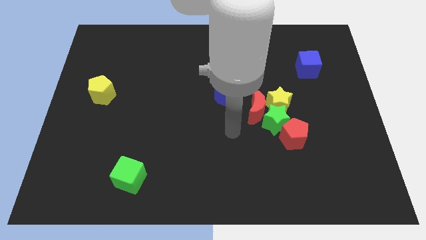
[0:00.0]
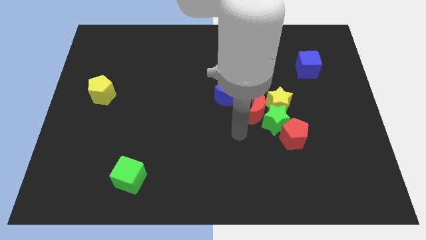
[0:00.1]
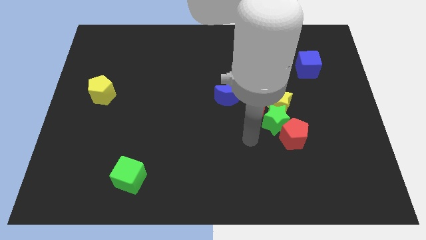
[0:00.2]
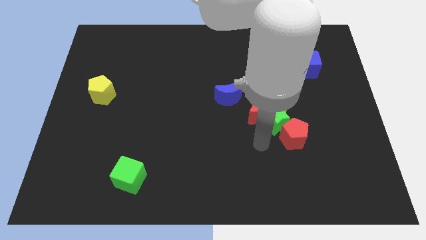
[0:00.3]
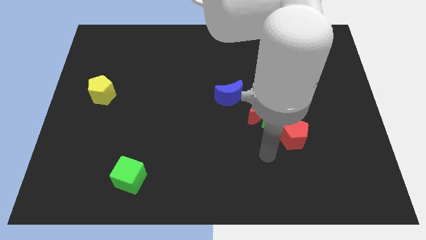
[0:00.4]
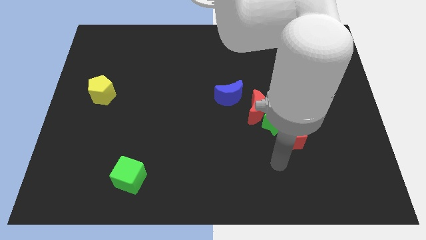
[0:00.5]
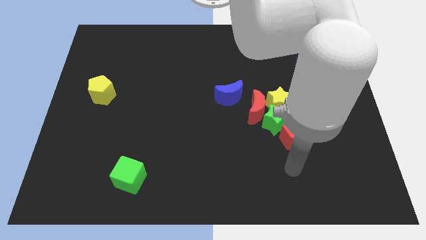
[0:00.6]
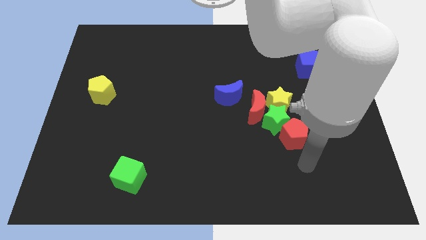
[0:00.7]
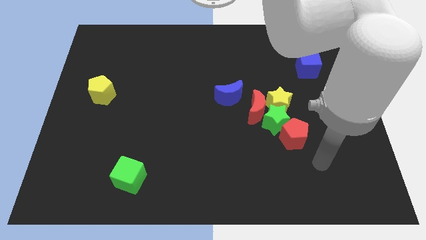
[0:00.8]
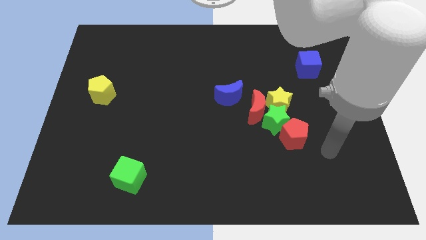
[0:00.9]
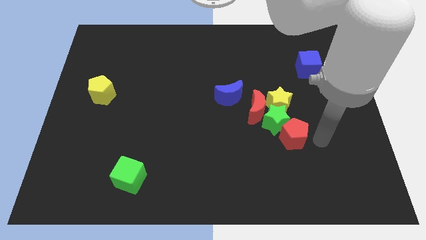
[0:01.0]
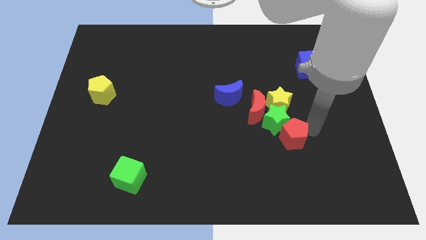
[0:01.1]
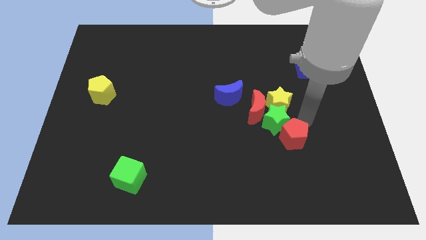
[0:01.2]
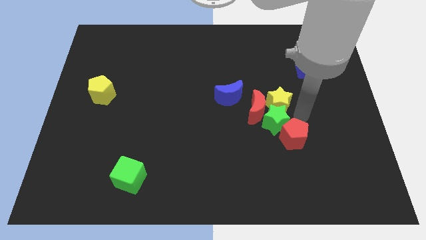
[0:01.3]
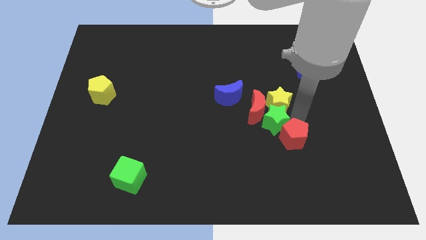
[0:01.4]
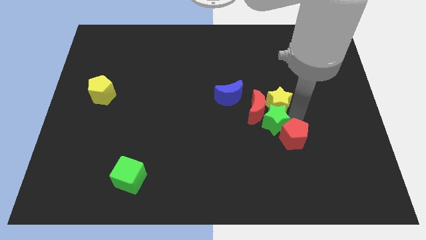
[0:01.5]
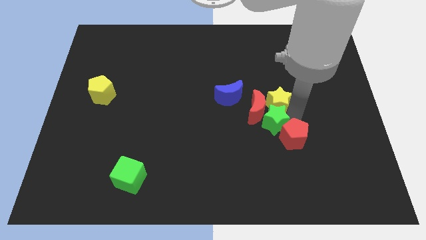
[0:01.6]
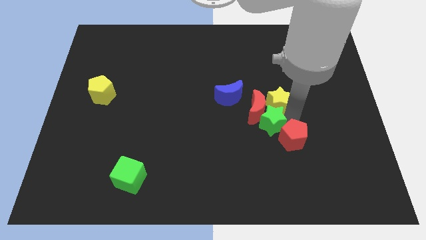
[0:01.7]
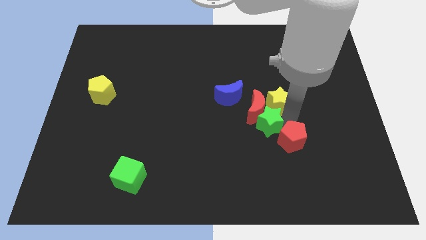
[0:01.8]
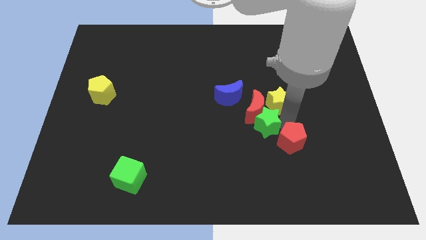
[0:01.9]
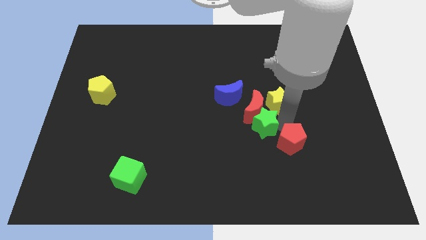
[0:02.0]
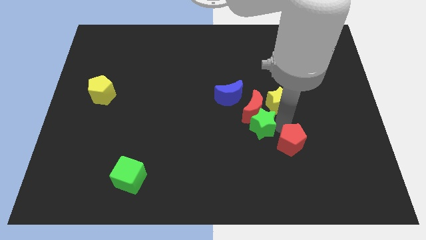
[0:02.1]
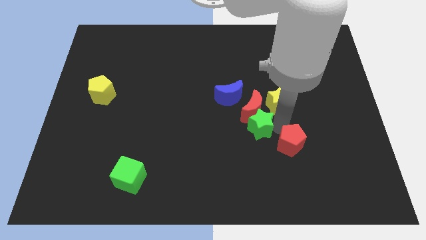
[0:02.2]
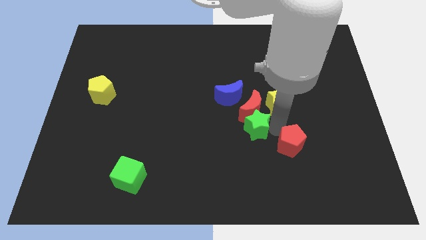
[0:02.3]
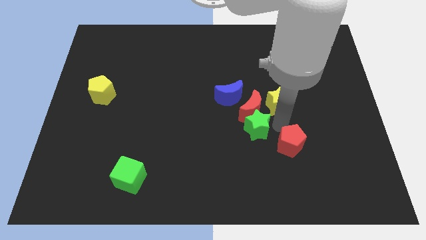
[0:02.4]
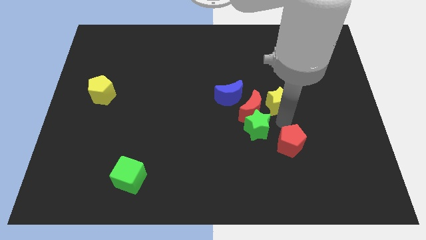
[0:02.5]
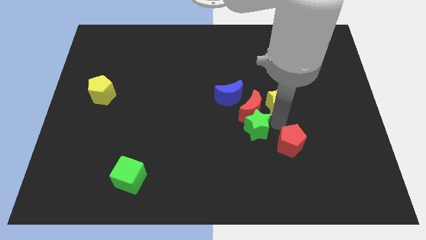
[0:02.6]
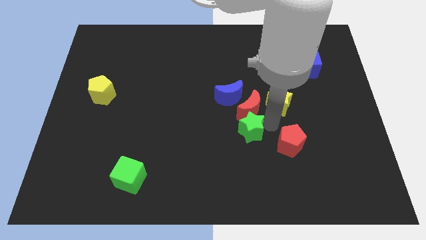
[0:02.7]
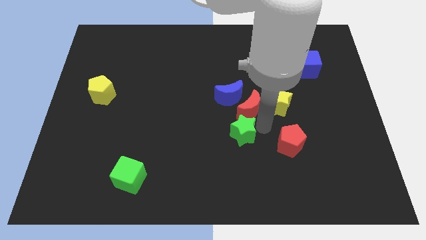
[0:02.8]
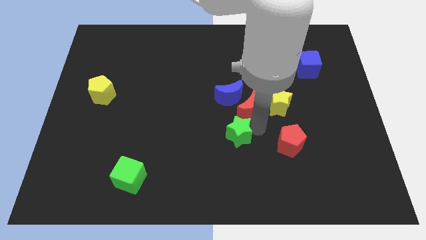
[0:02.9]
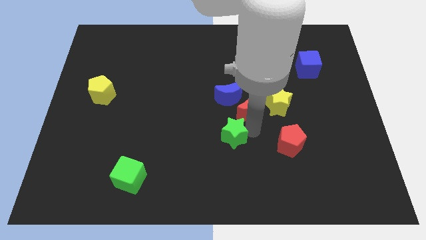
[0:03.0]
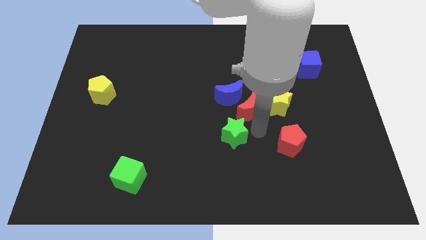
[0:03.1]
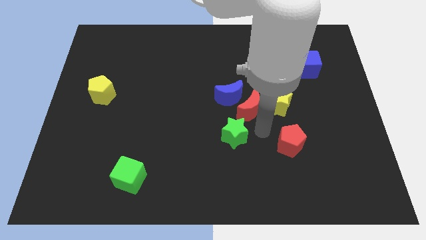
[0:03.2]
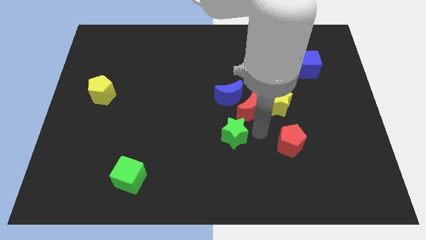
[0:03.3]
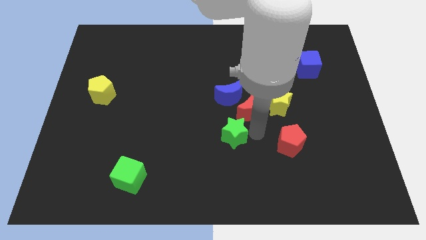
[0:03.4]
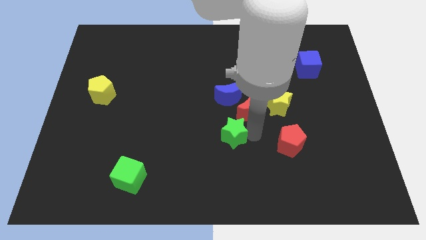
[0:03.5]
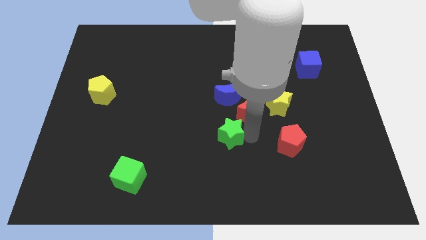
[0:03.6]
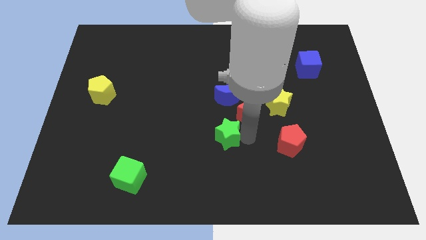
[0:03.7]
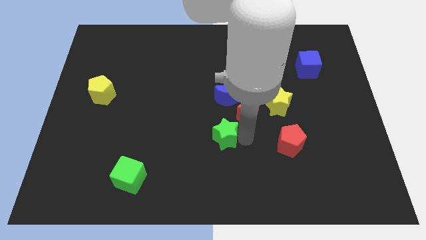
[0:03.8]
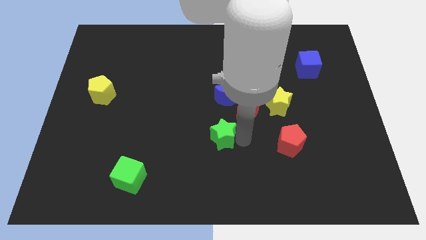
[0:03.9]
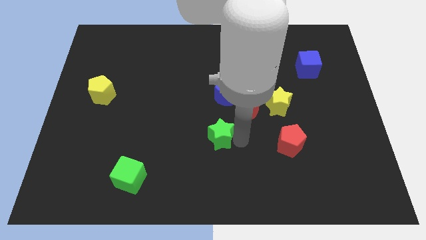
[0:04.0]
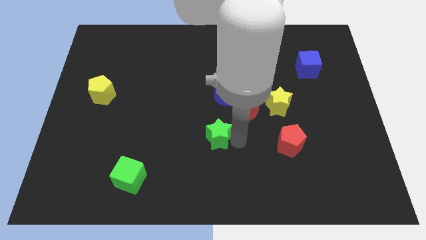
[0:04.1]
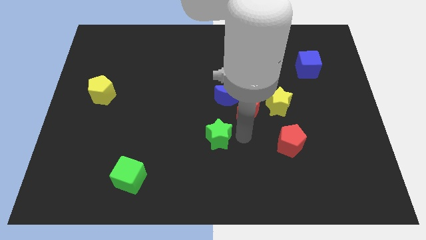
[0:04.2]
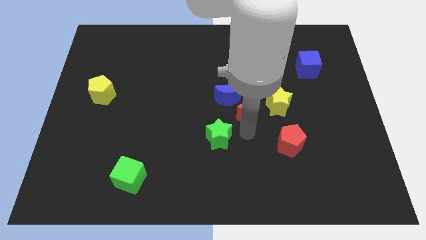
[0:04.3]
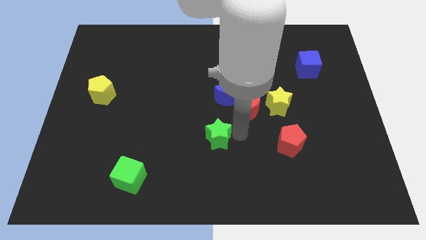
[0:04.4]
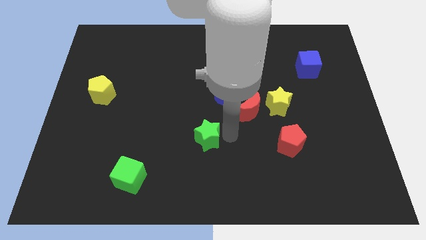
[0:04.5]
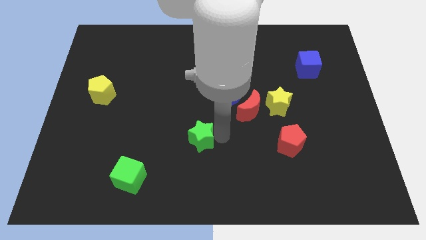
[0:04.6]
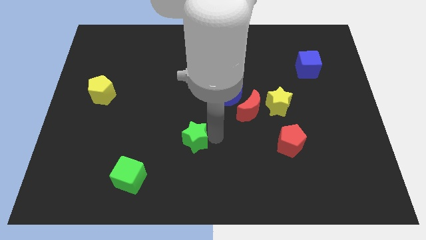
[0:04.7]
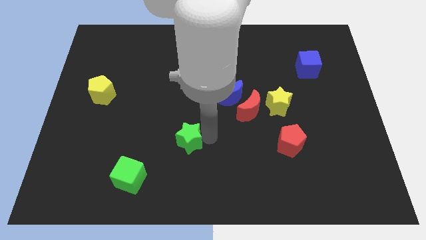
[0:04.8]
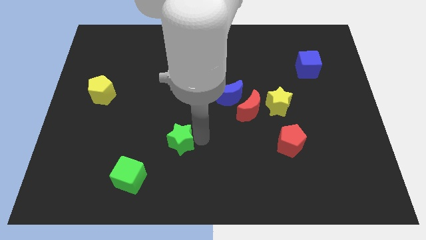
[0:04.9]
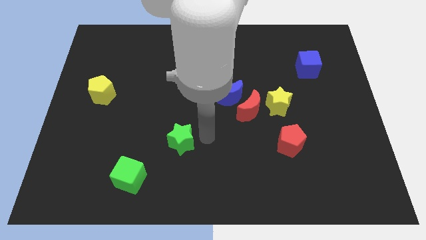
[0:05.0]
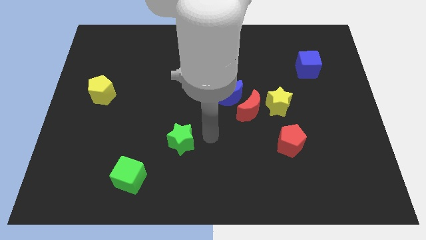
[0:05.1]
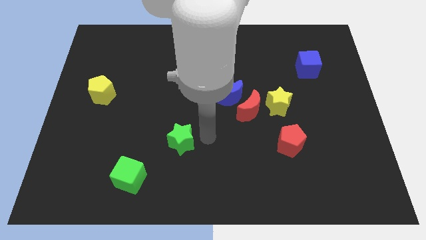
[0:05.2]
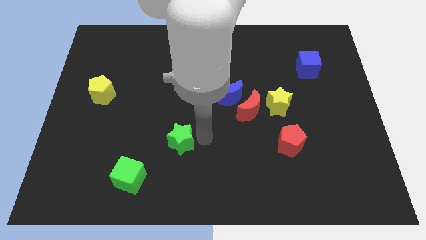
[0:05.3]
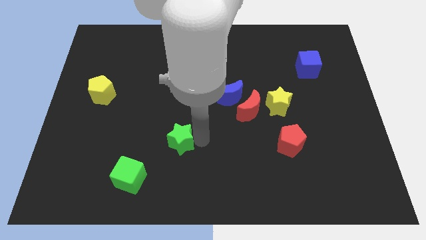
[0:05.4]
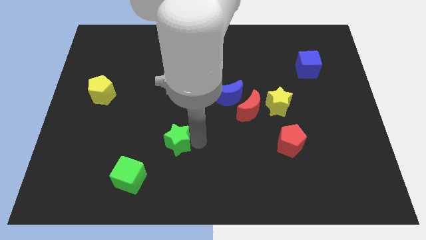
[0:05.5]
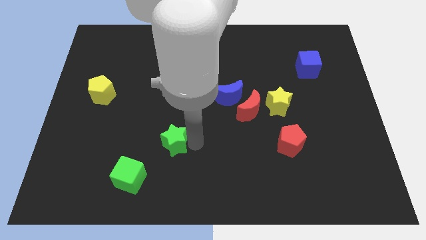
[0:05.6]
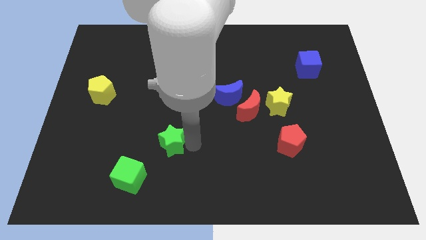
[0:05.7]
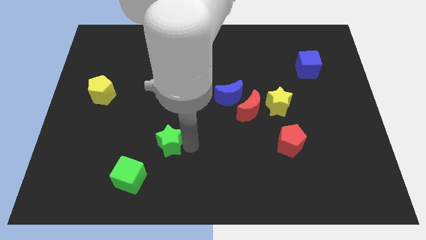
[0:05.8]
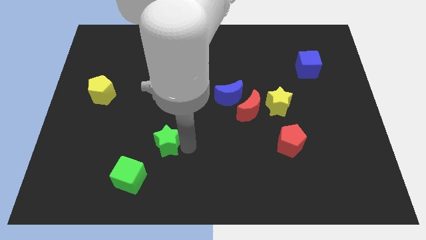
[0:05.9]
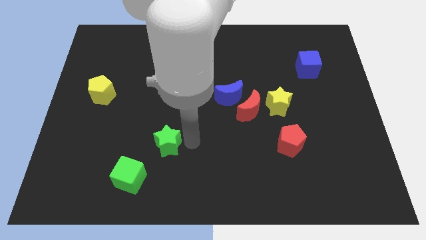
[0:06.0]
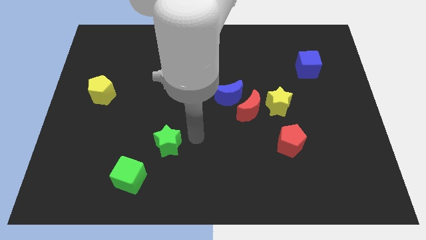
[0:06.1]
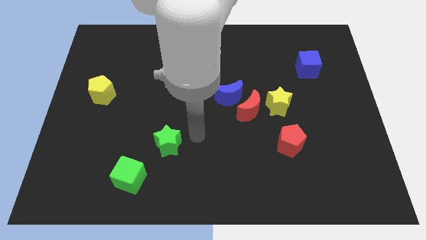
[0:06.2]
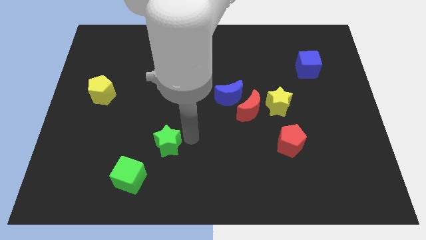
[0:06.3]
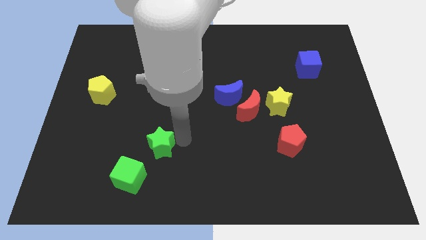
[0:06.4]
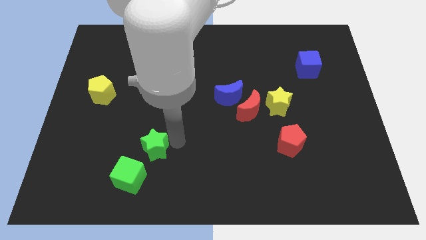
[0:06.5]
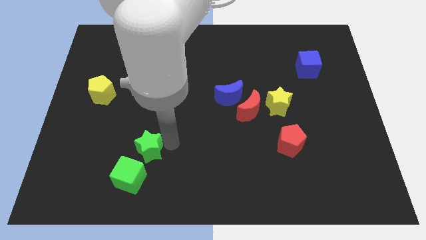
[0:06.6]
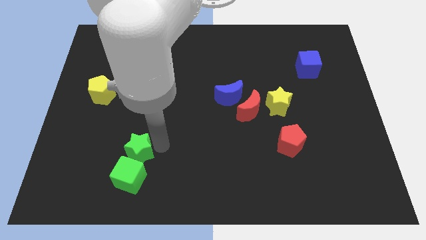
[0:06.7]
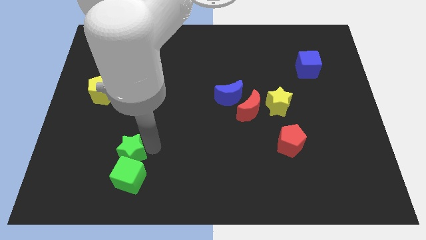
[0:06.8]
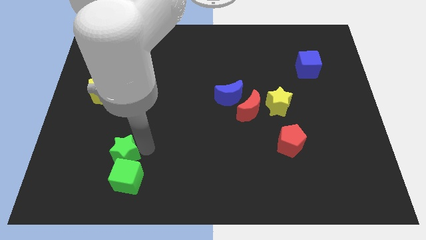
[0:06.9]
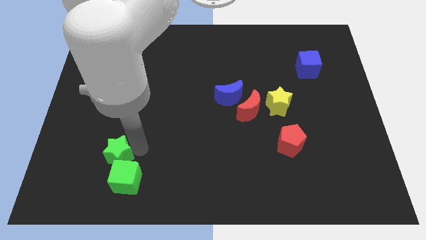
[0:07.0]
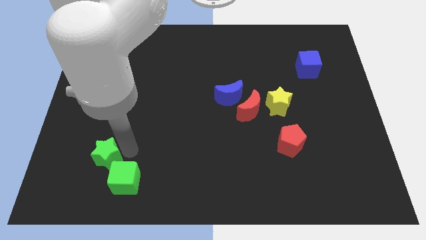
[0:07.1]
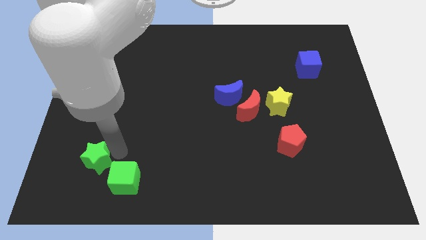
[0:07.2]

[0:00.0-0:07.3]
slide the green star just left of the green cube
